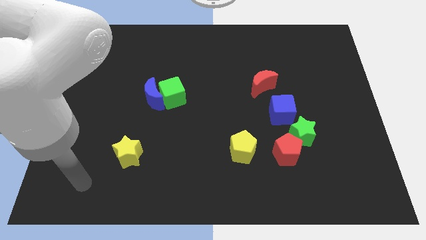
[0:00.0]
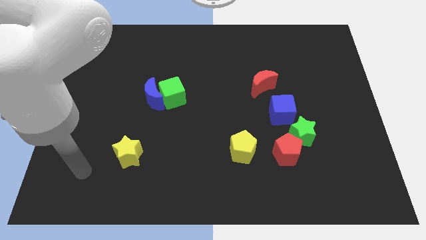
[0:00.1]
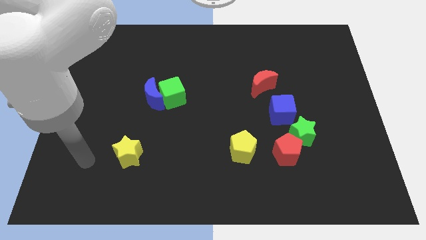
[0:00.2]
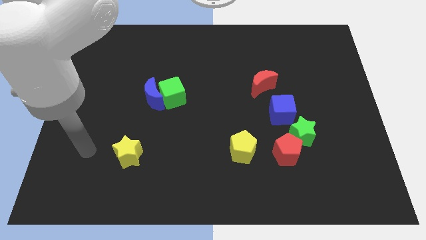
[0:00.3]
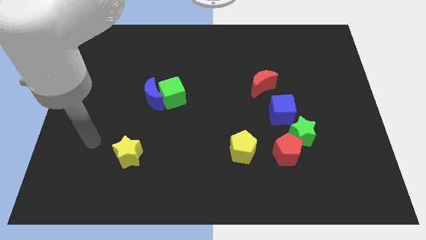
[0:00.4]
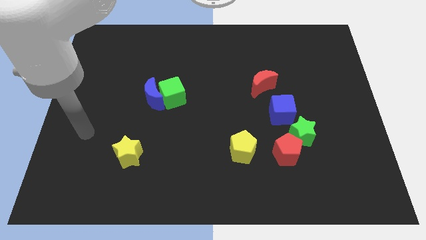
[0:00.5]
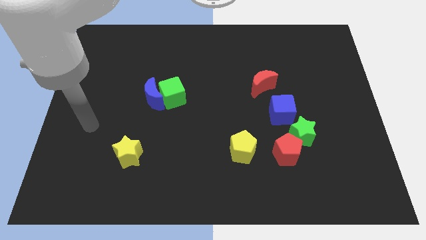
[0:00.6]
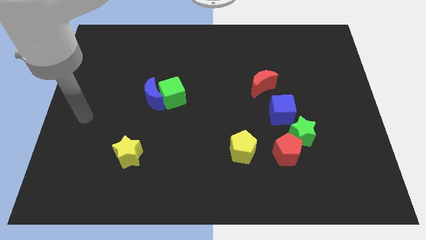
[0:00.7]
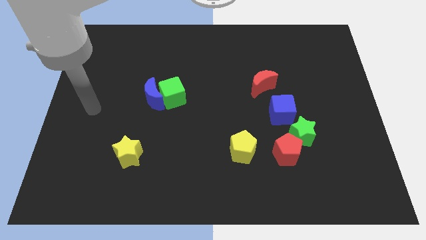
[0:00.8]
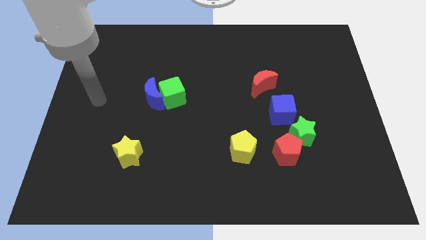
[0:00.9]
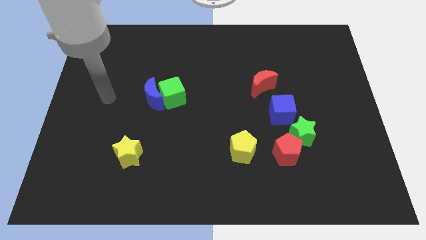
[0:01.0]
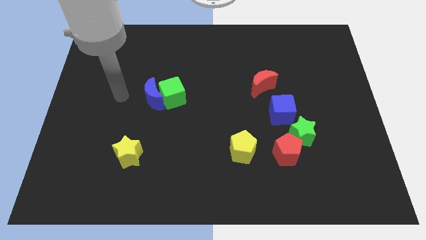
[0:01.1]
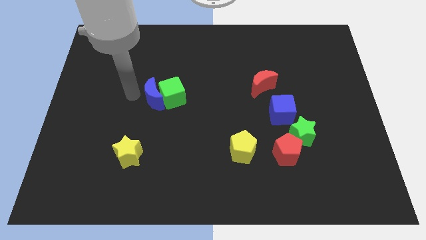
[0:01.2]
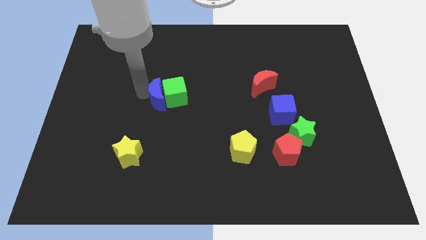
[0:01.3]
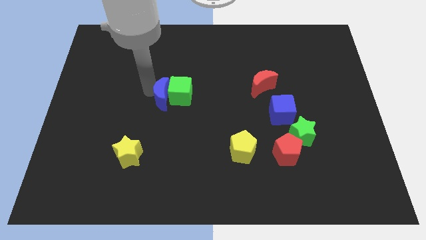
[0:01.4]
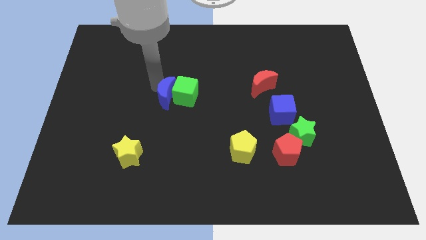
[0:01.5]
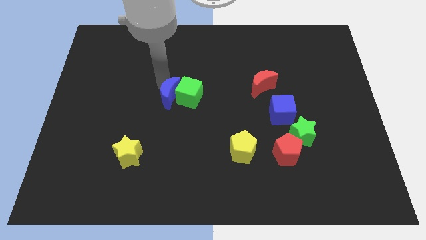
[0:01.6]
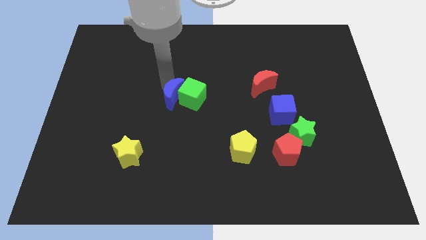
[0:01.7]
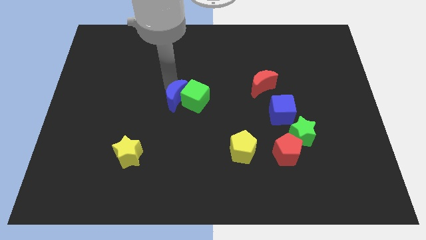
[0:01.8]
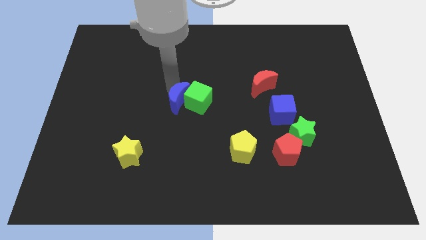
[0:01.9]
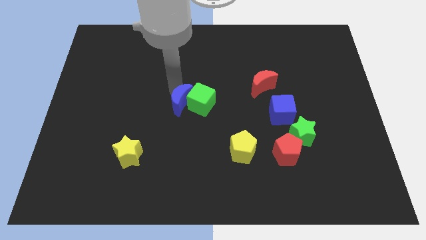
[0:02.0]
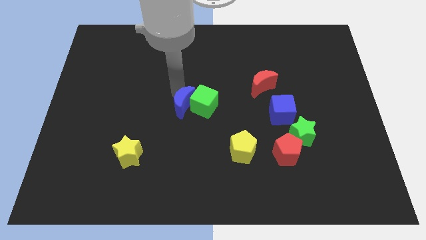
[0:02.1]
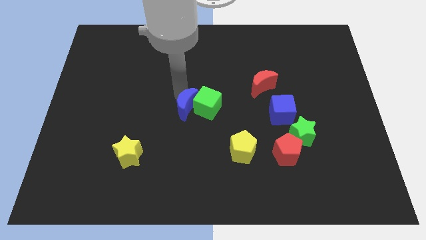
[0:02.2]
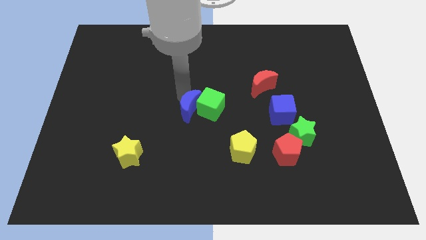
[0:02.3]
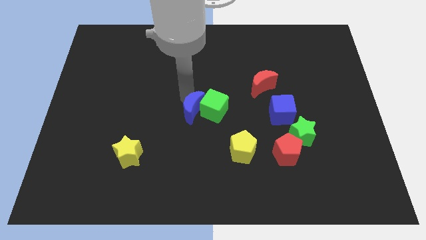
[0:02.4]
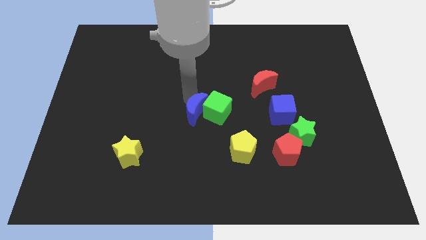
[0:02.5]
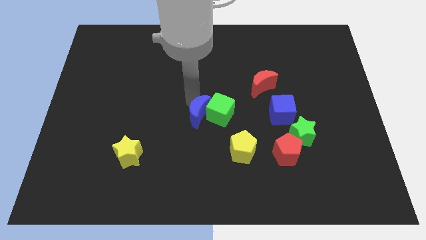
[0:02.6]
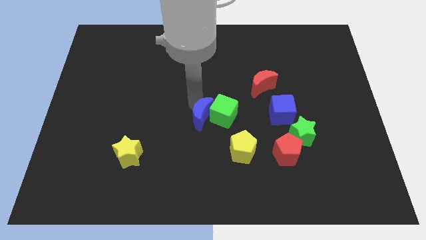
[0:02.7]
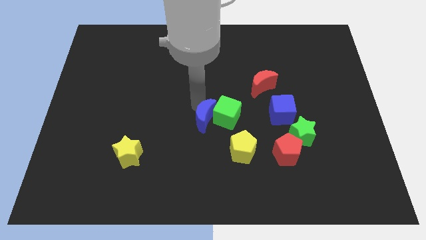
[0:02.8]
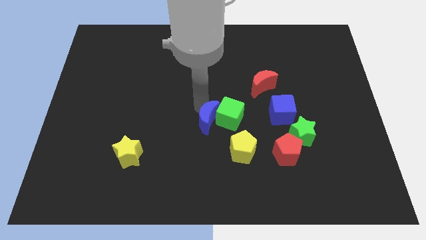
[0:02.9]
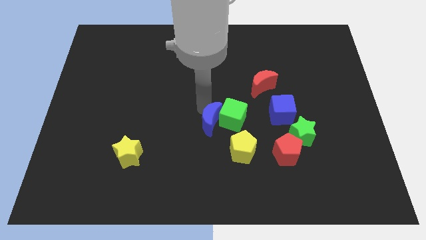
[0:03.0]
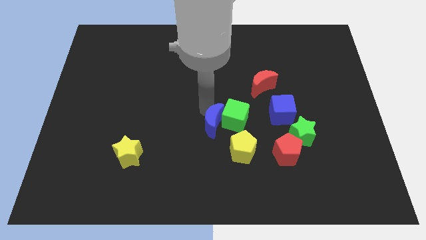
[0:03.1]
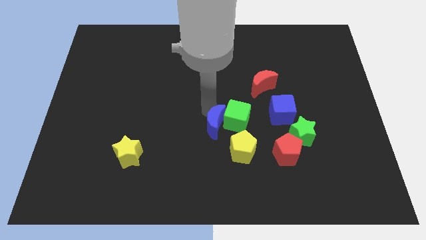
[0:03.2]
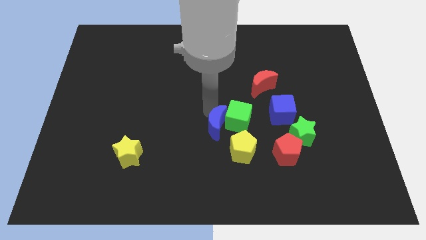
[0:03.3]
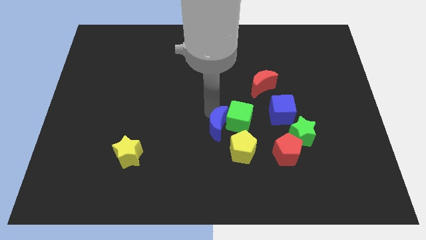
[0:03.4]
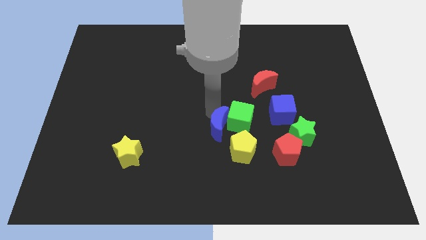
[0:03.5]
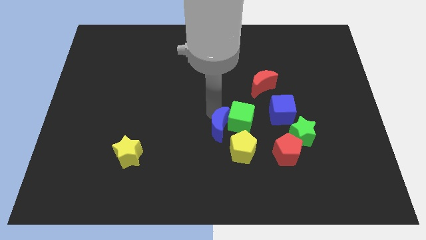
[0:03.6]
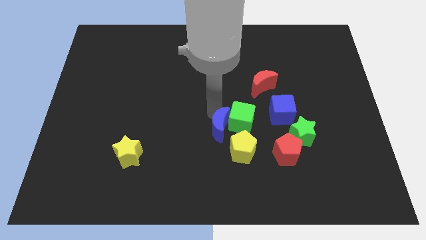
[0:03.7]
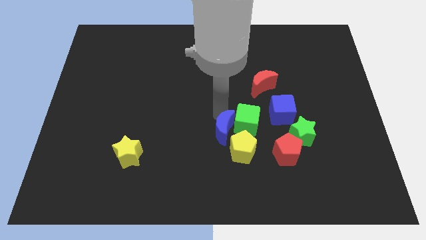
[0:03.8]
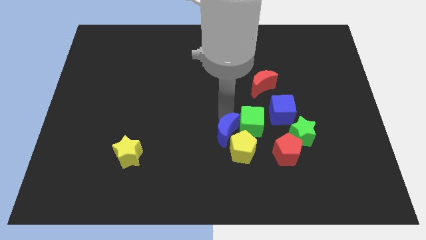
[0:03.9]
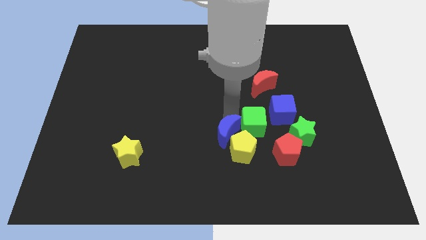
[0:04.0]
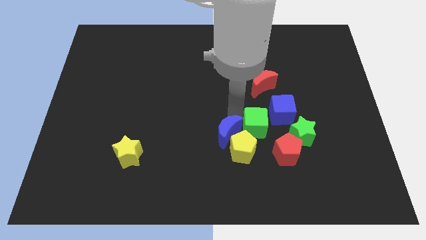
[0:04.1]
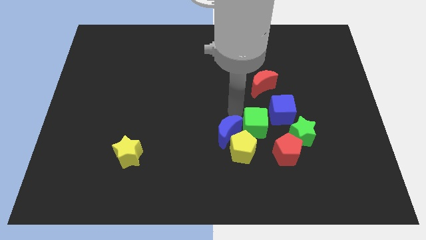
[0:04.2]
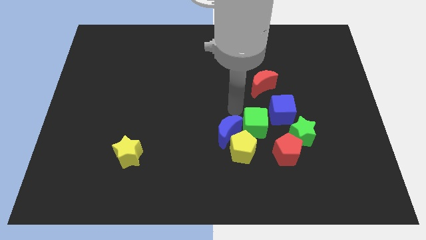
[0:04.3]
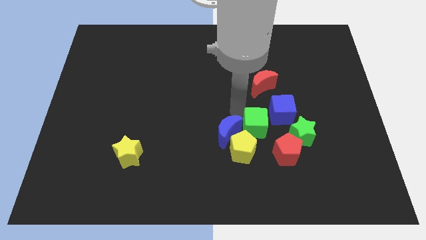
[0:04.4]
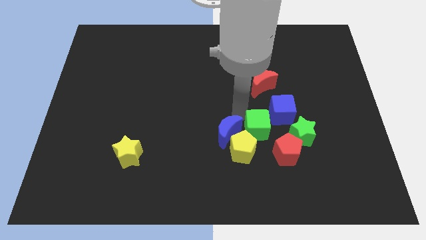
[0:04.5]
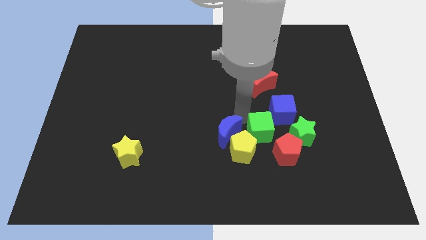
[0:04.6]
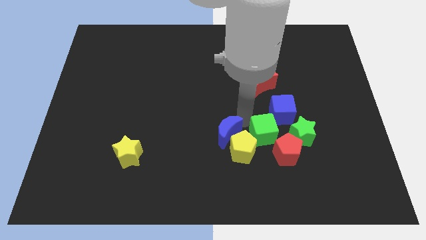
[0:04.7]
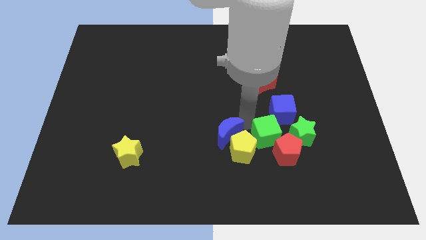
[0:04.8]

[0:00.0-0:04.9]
slide the green cube next to the red pentagon

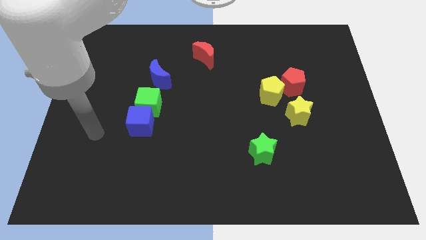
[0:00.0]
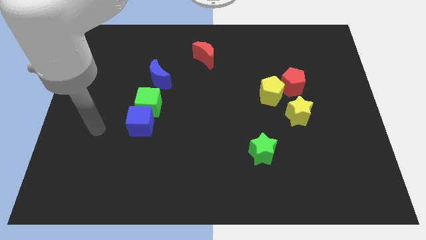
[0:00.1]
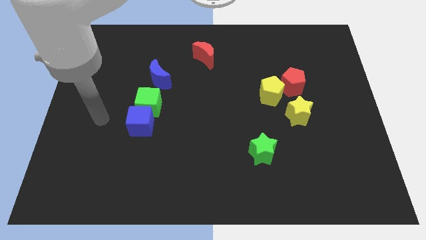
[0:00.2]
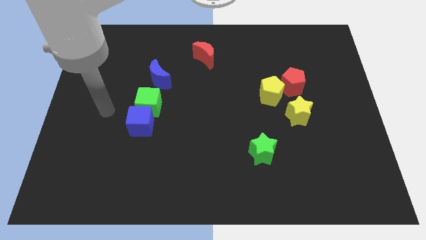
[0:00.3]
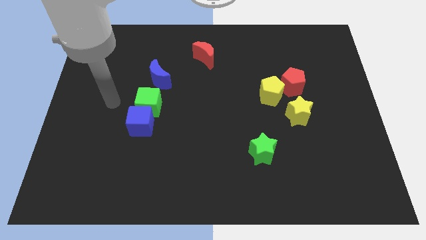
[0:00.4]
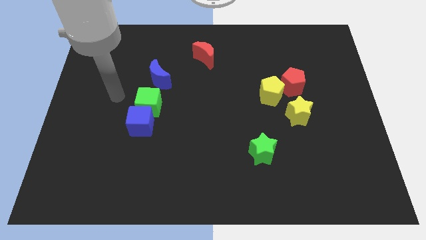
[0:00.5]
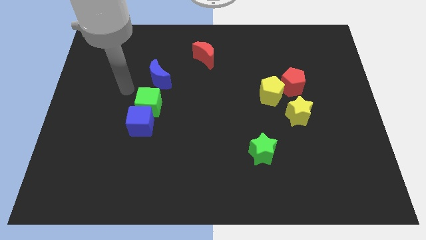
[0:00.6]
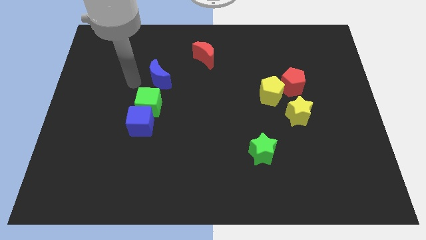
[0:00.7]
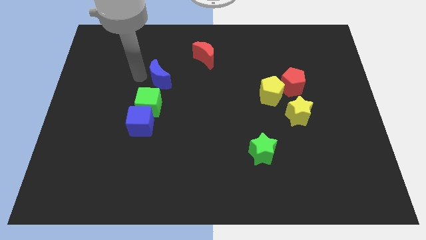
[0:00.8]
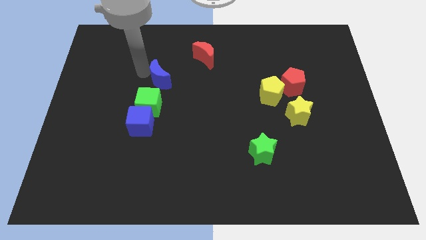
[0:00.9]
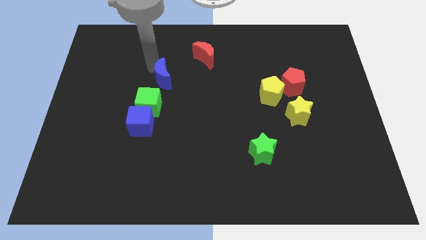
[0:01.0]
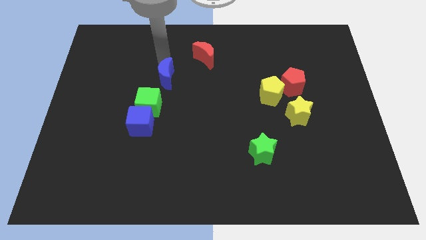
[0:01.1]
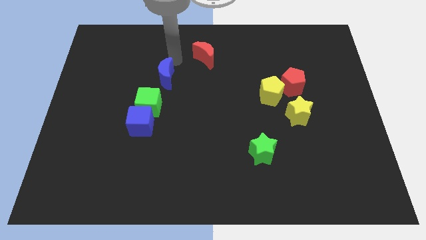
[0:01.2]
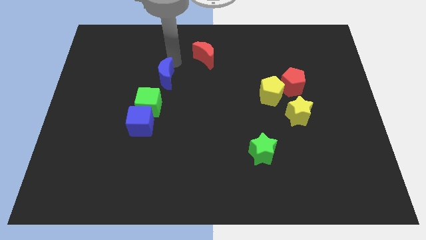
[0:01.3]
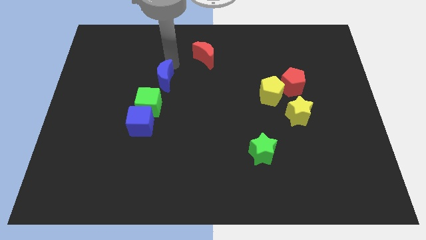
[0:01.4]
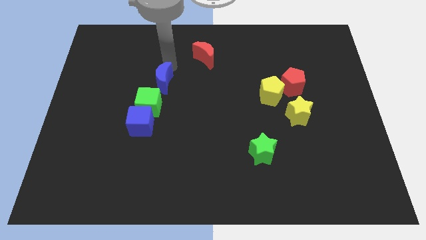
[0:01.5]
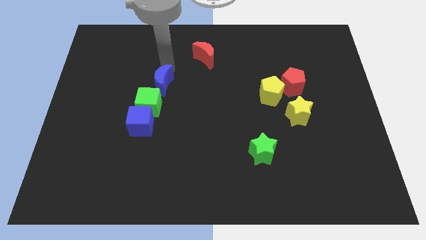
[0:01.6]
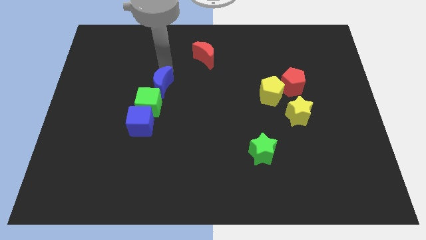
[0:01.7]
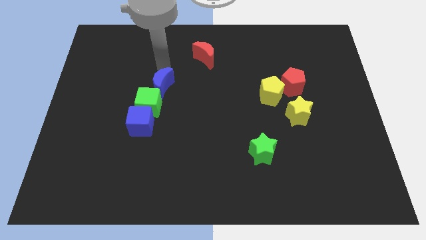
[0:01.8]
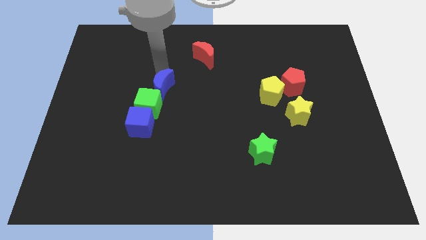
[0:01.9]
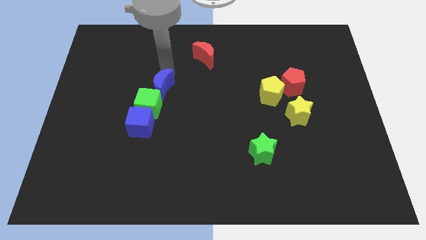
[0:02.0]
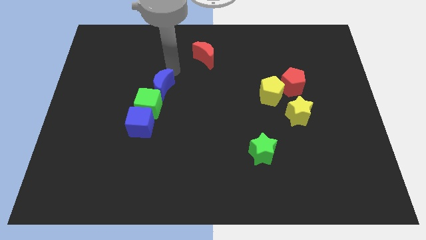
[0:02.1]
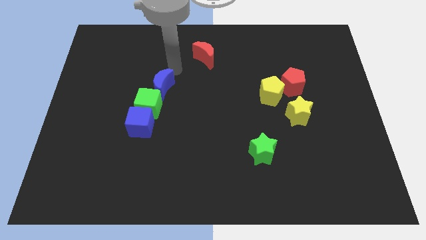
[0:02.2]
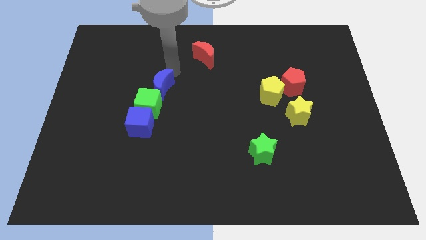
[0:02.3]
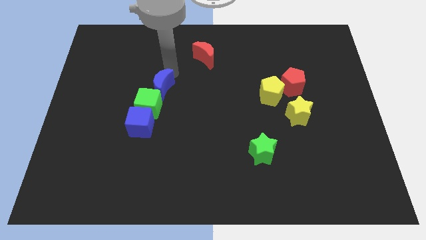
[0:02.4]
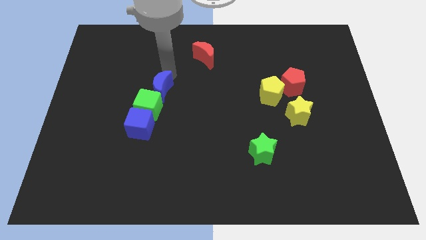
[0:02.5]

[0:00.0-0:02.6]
slide the blue moon next to the green cube

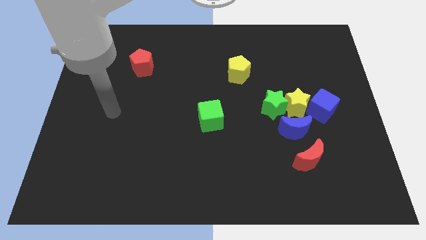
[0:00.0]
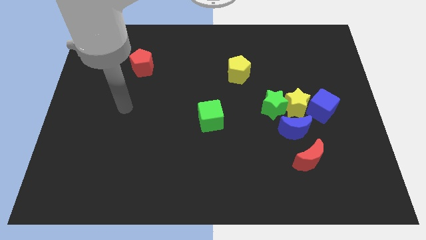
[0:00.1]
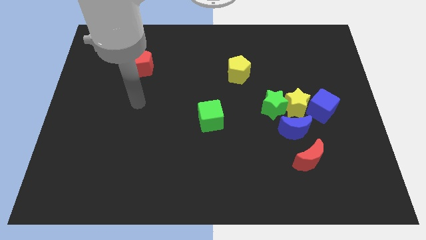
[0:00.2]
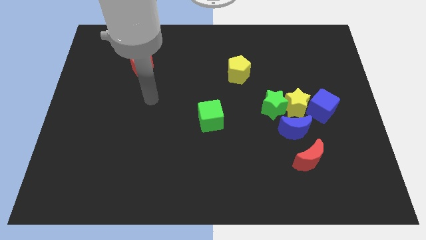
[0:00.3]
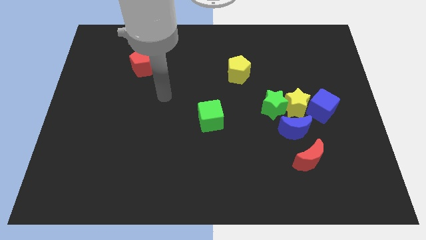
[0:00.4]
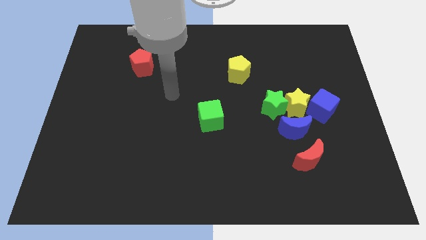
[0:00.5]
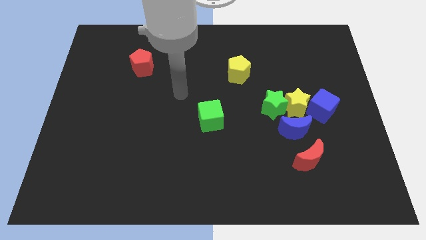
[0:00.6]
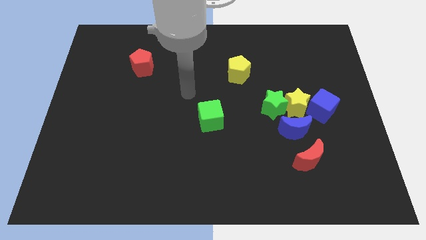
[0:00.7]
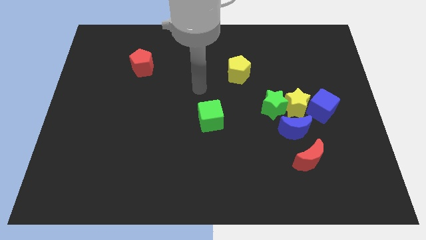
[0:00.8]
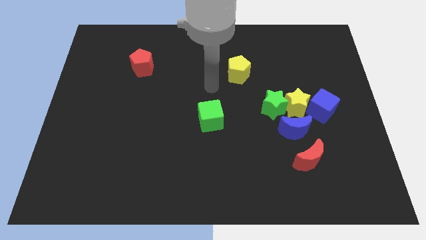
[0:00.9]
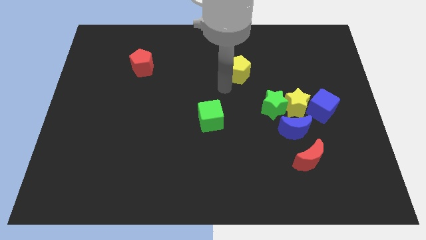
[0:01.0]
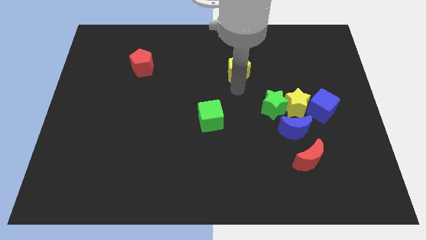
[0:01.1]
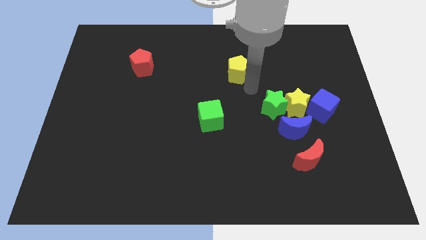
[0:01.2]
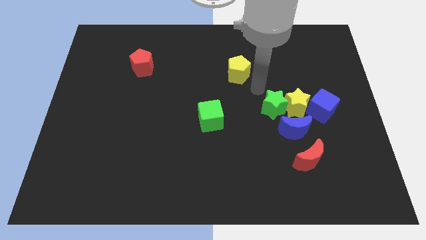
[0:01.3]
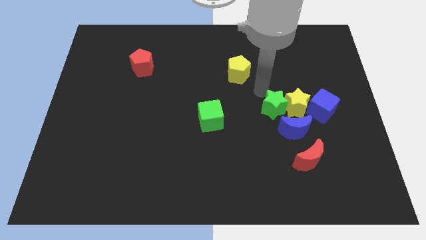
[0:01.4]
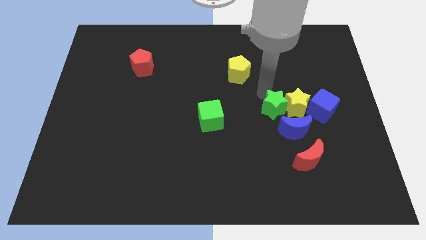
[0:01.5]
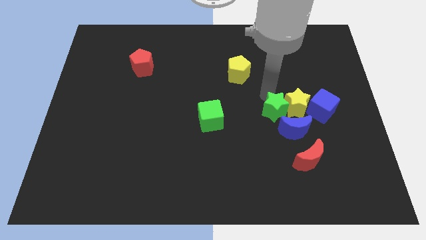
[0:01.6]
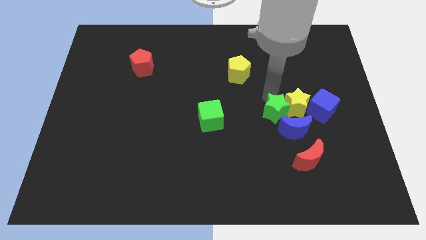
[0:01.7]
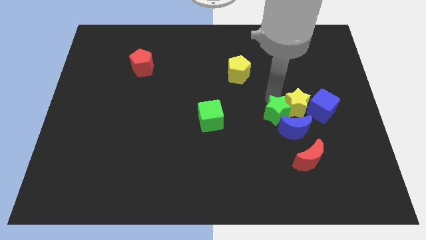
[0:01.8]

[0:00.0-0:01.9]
push the green star close to the blue moon
